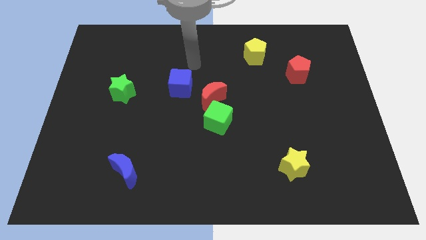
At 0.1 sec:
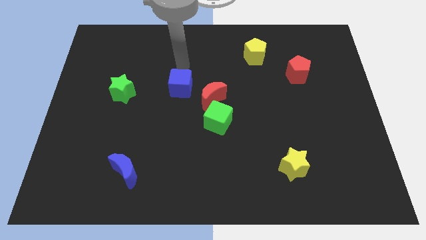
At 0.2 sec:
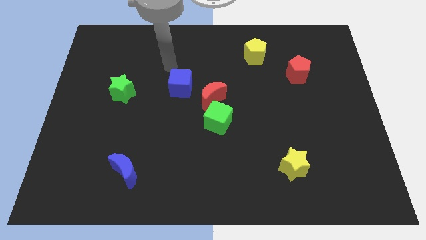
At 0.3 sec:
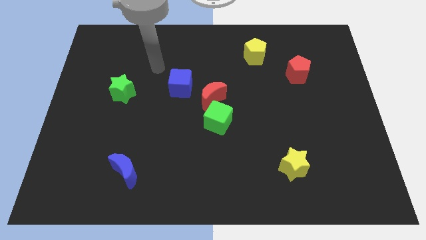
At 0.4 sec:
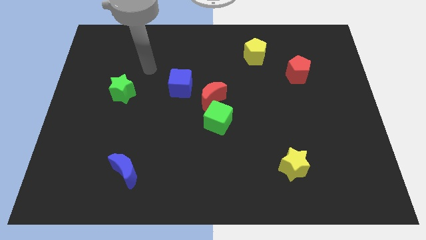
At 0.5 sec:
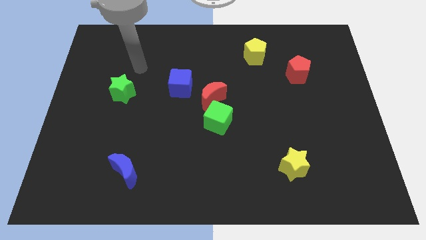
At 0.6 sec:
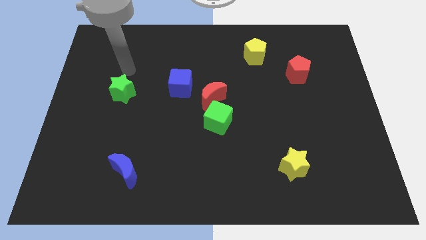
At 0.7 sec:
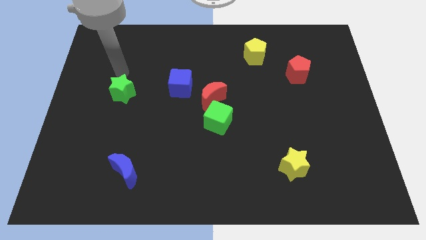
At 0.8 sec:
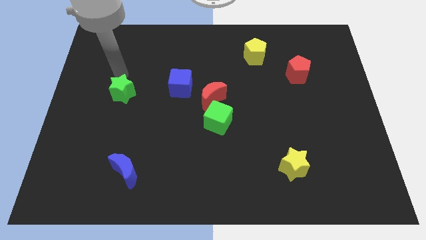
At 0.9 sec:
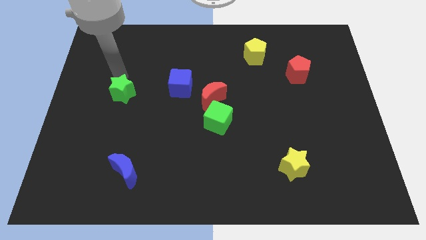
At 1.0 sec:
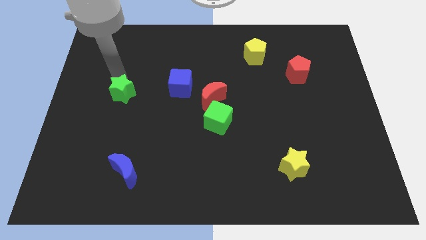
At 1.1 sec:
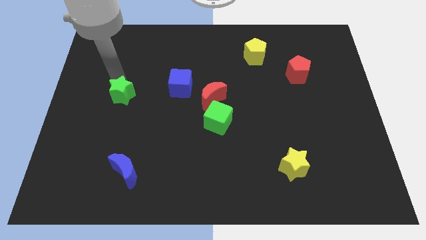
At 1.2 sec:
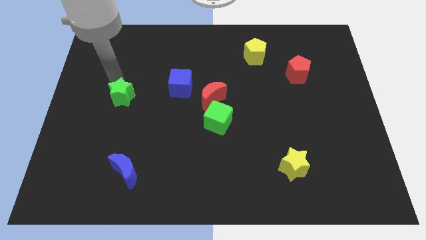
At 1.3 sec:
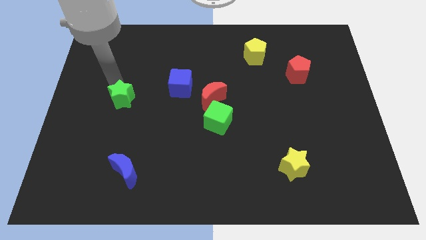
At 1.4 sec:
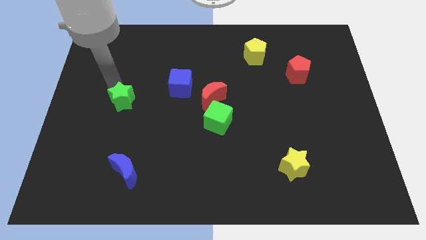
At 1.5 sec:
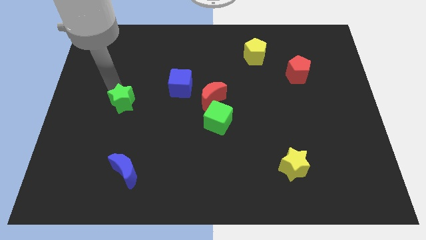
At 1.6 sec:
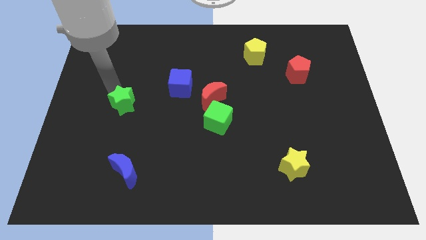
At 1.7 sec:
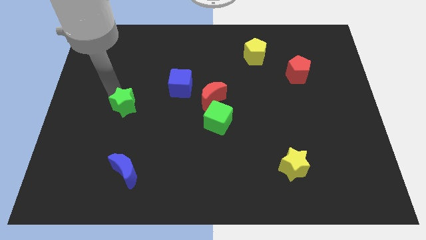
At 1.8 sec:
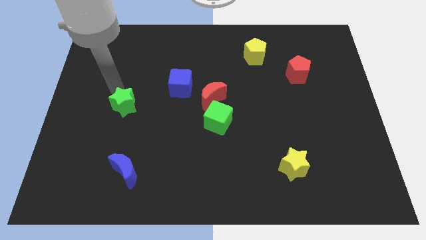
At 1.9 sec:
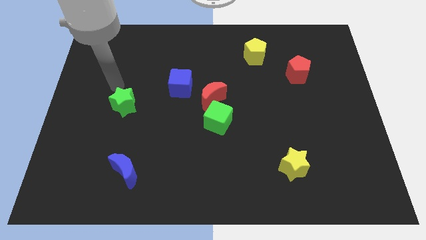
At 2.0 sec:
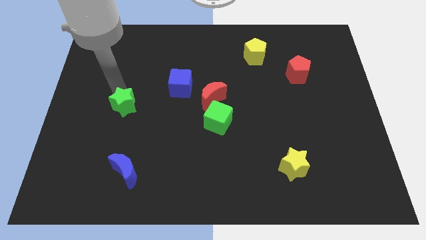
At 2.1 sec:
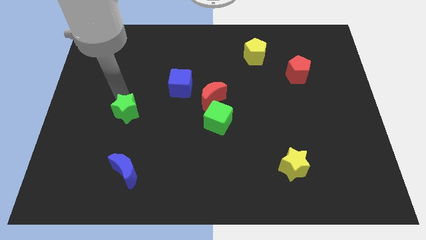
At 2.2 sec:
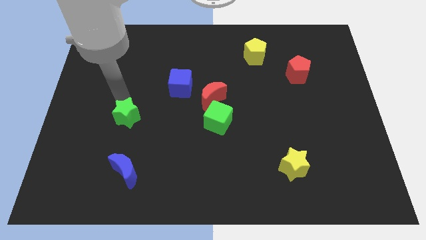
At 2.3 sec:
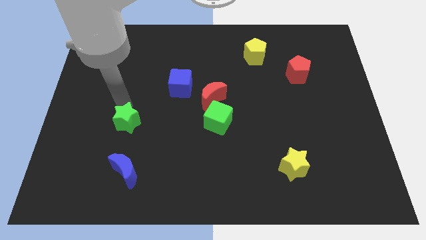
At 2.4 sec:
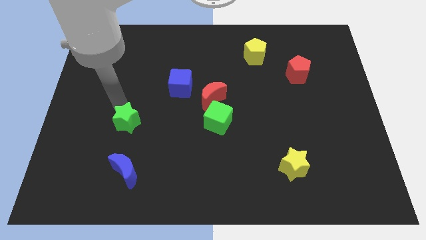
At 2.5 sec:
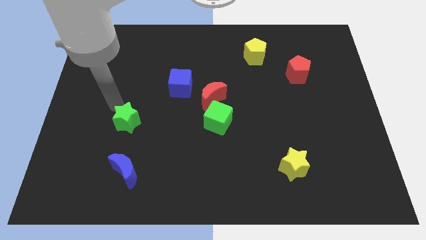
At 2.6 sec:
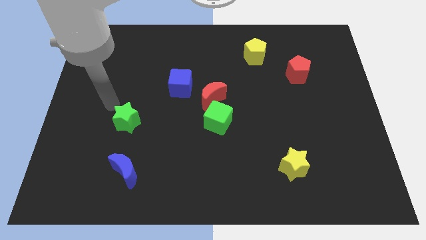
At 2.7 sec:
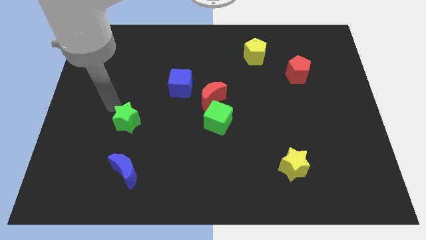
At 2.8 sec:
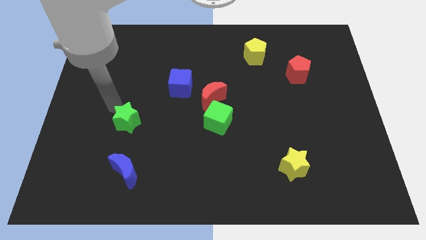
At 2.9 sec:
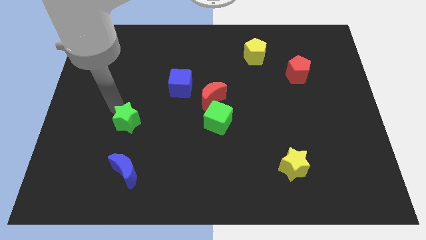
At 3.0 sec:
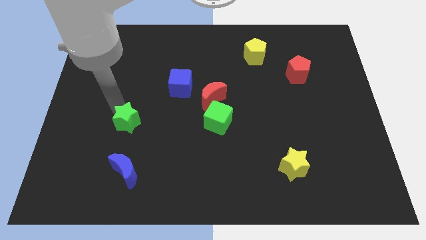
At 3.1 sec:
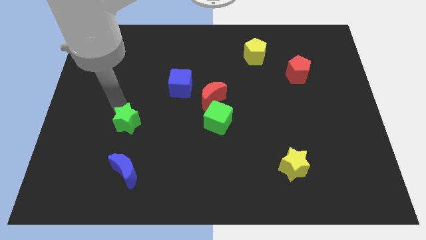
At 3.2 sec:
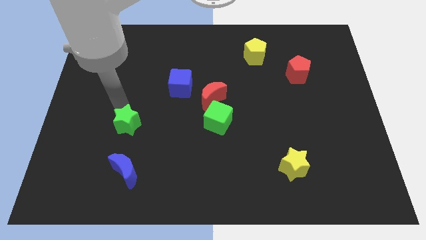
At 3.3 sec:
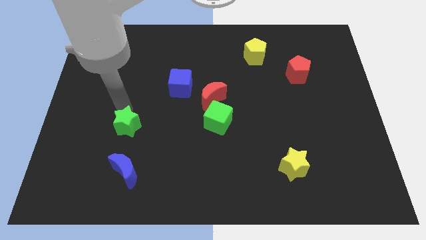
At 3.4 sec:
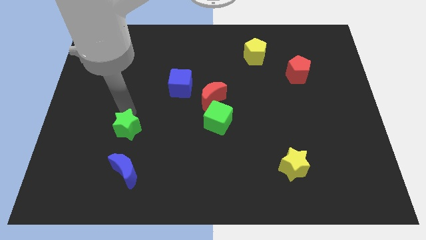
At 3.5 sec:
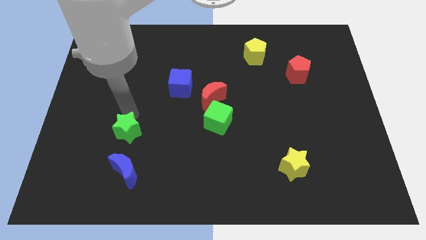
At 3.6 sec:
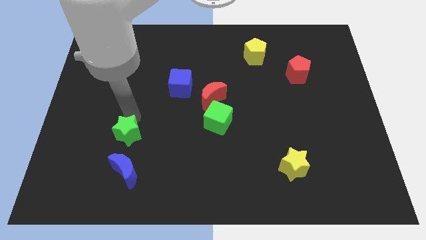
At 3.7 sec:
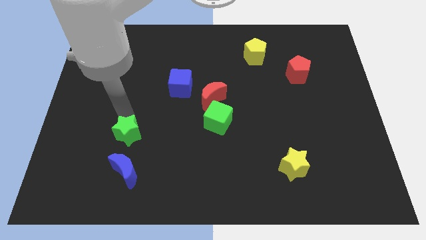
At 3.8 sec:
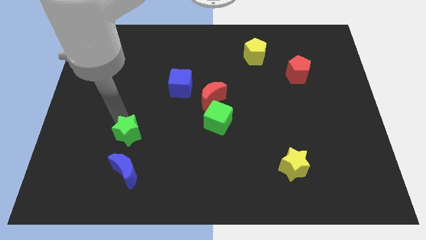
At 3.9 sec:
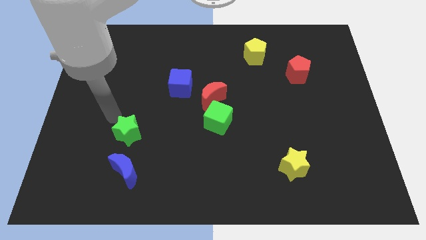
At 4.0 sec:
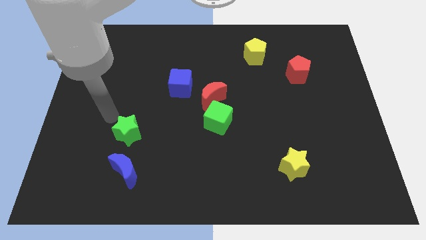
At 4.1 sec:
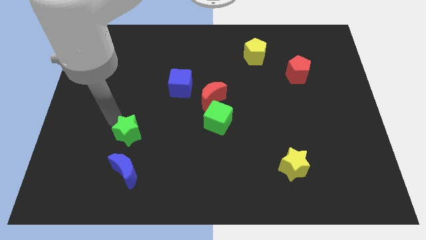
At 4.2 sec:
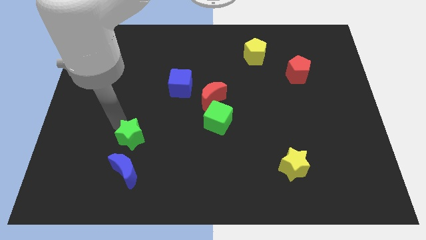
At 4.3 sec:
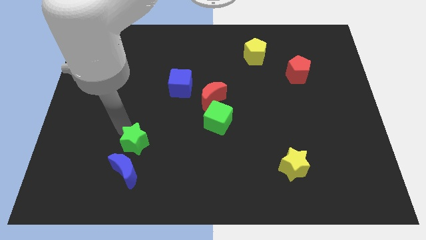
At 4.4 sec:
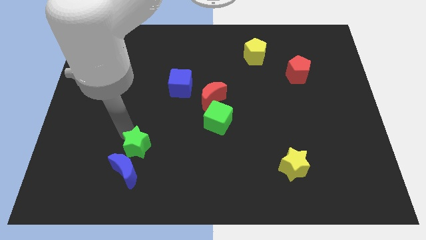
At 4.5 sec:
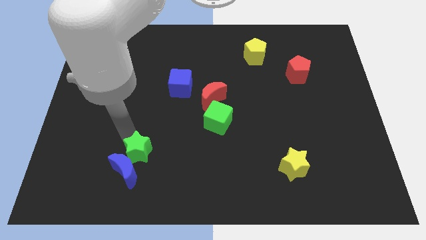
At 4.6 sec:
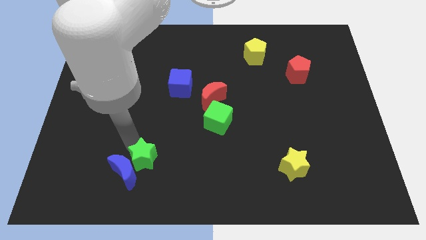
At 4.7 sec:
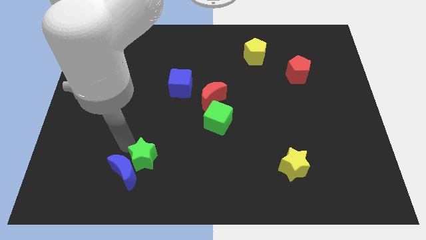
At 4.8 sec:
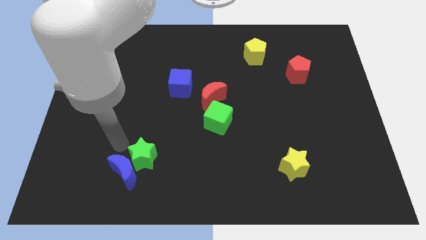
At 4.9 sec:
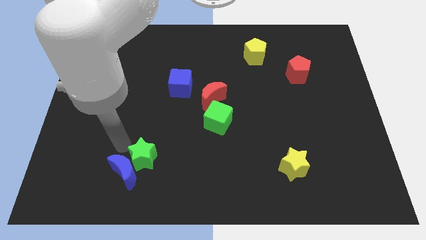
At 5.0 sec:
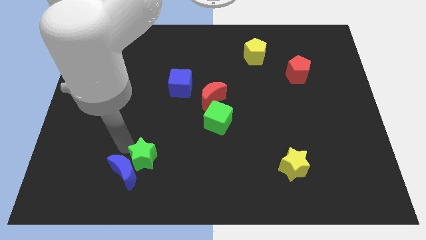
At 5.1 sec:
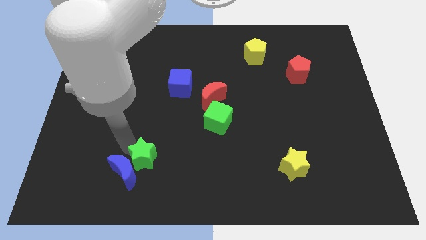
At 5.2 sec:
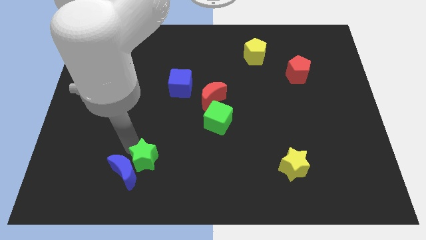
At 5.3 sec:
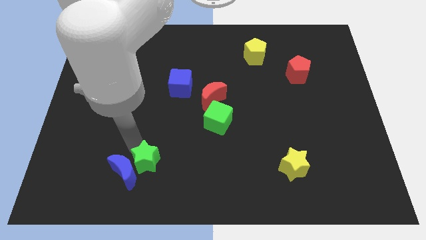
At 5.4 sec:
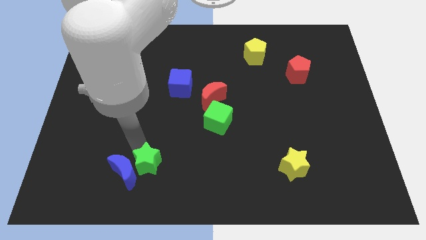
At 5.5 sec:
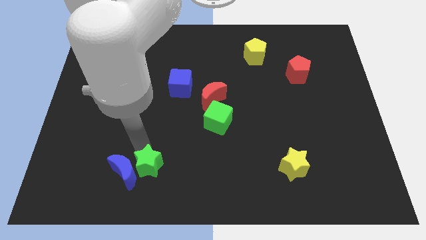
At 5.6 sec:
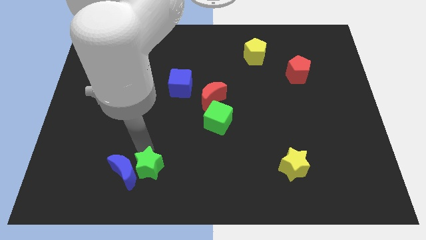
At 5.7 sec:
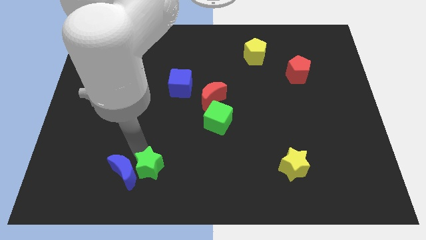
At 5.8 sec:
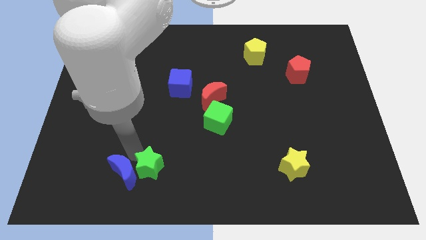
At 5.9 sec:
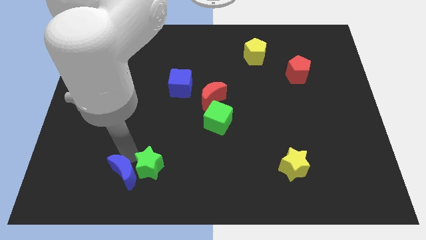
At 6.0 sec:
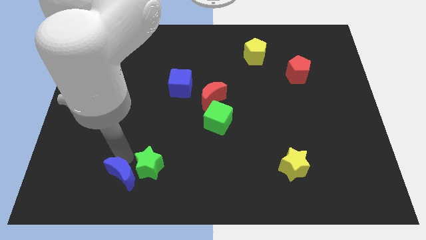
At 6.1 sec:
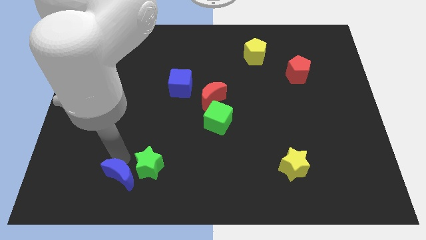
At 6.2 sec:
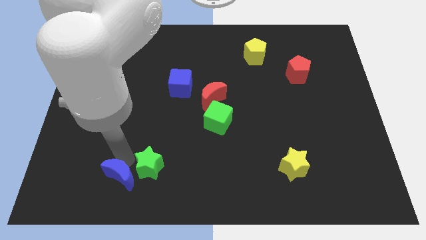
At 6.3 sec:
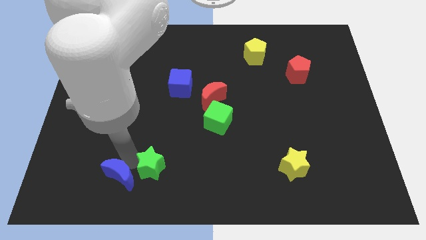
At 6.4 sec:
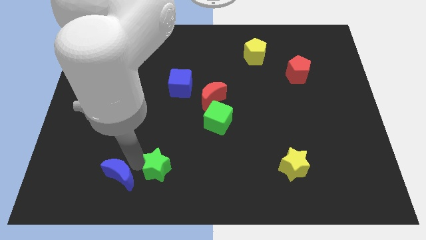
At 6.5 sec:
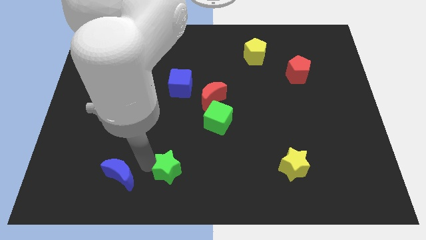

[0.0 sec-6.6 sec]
put the green star to the bottom side

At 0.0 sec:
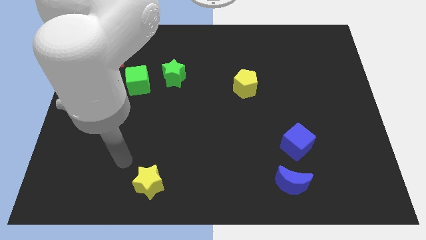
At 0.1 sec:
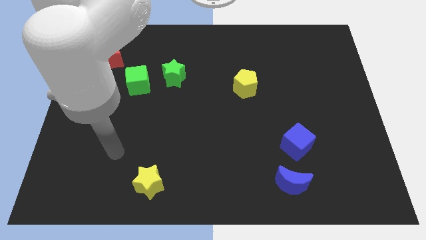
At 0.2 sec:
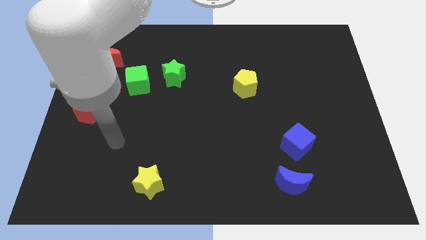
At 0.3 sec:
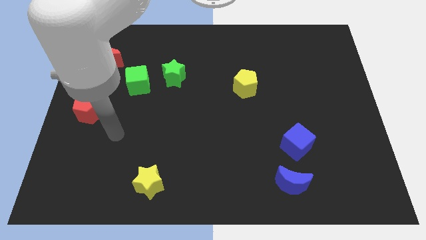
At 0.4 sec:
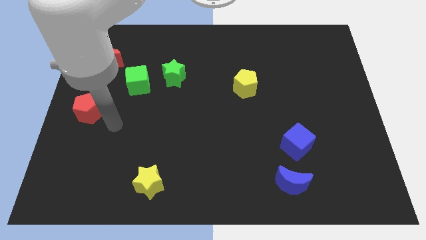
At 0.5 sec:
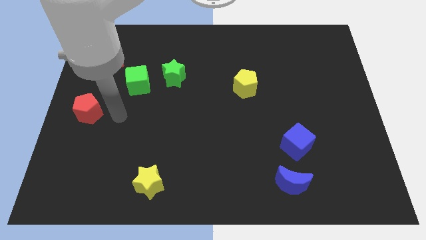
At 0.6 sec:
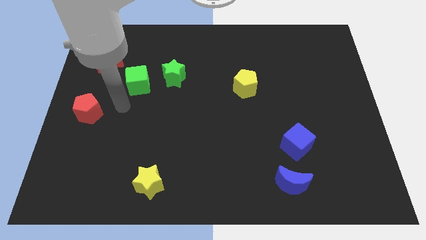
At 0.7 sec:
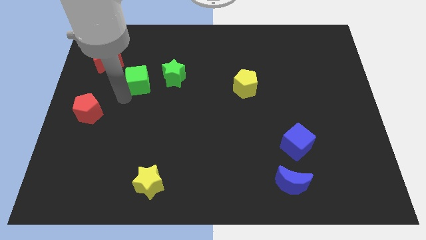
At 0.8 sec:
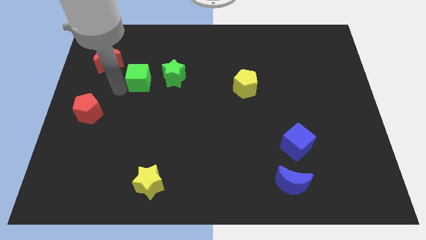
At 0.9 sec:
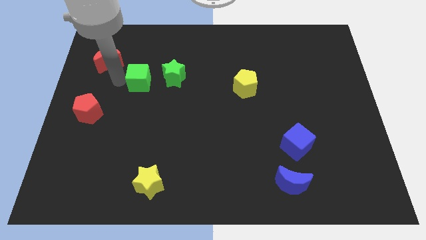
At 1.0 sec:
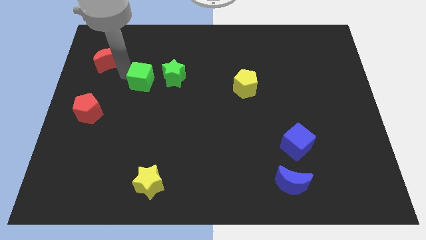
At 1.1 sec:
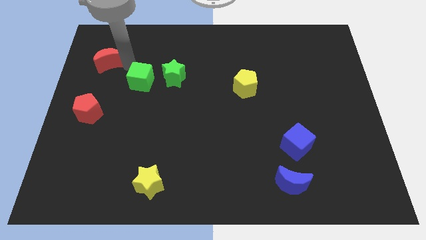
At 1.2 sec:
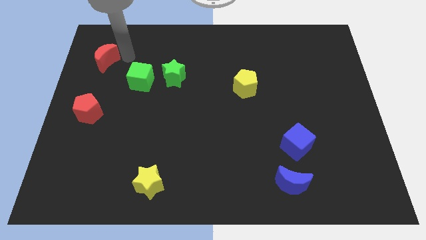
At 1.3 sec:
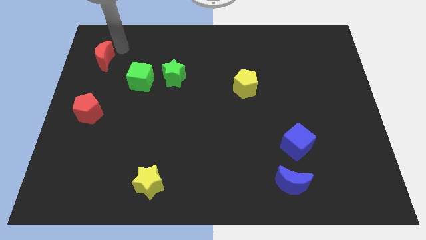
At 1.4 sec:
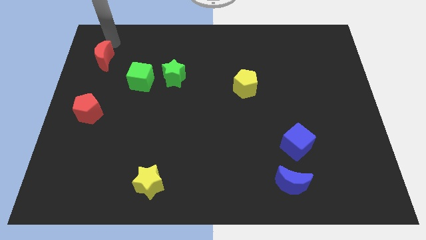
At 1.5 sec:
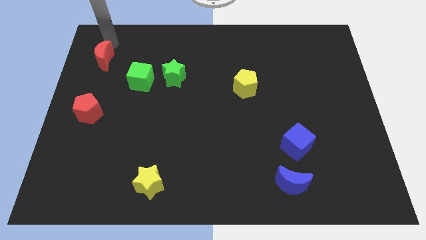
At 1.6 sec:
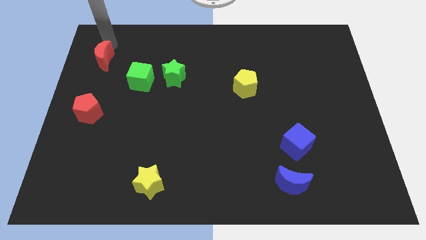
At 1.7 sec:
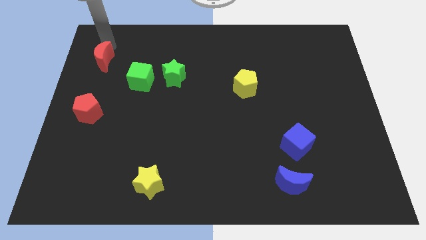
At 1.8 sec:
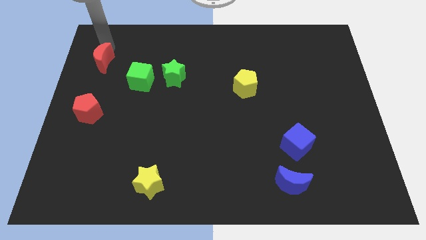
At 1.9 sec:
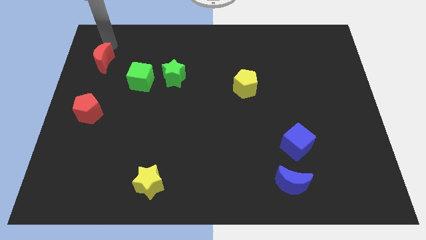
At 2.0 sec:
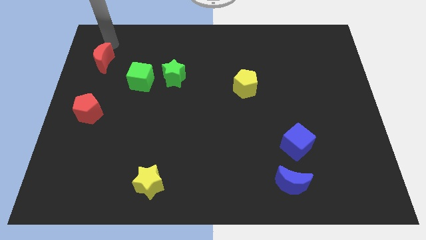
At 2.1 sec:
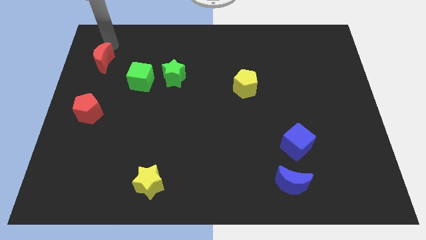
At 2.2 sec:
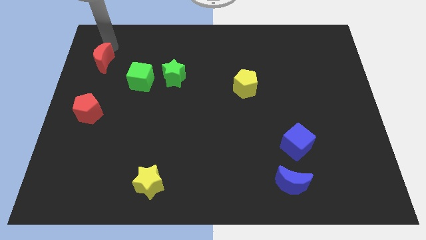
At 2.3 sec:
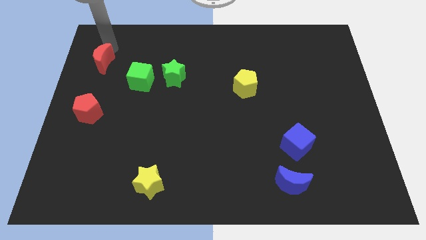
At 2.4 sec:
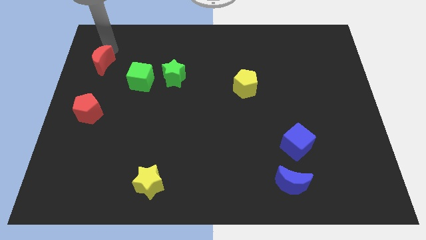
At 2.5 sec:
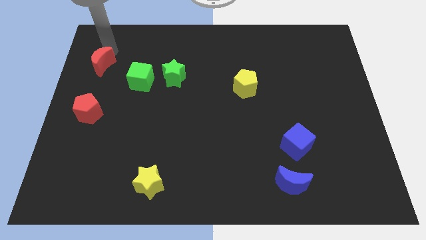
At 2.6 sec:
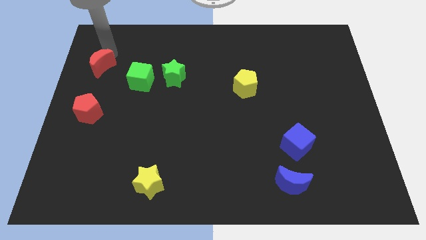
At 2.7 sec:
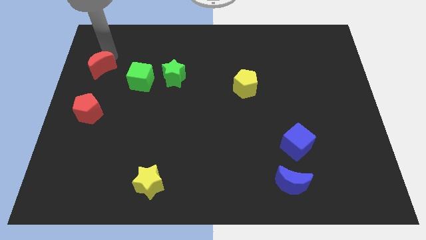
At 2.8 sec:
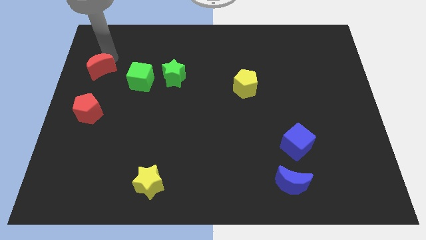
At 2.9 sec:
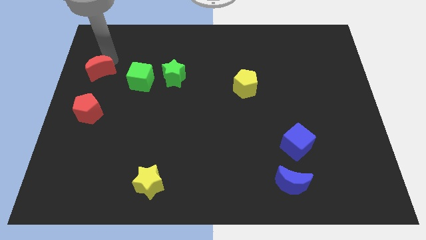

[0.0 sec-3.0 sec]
put the red moon to the center left
